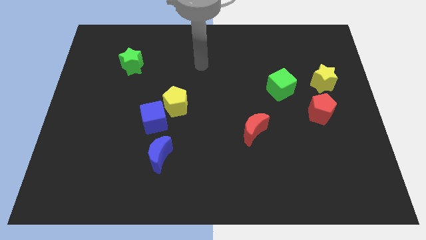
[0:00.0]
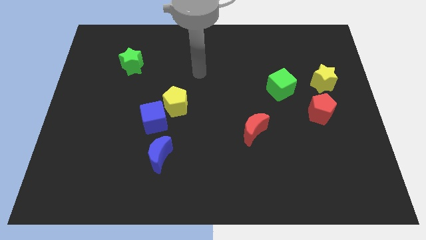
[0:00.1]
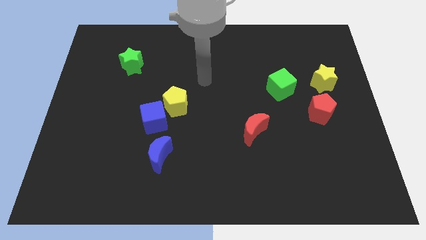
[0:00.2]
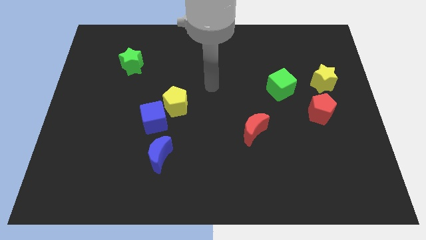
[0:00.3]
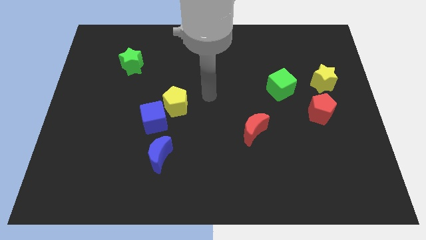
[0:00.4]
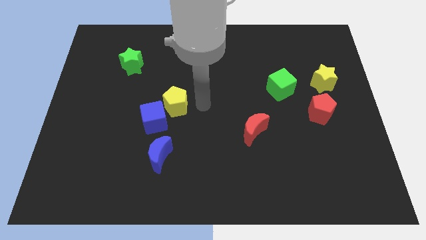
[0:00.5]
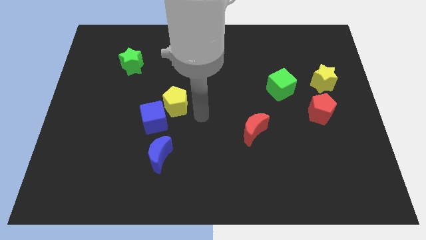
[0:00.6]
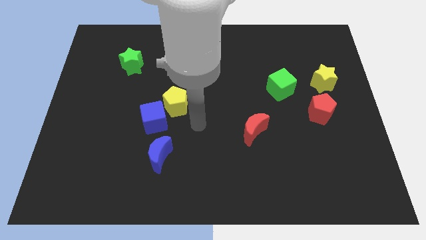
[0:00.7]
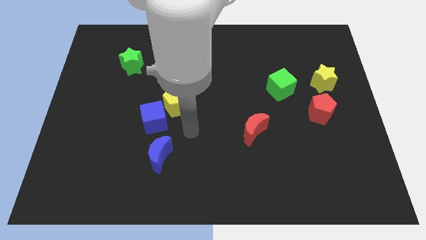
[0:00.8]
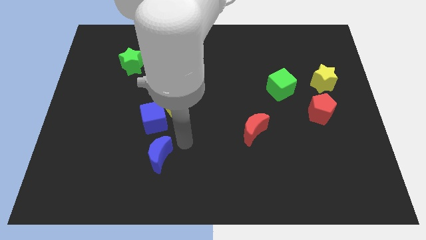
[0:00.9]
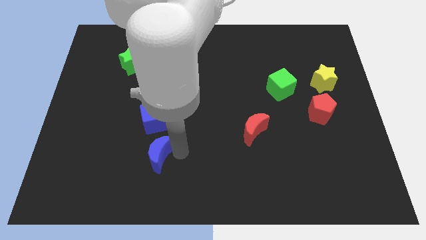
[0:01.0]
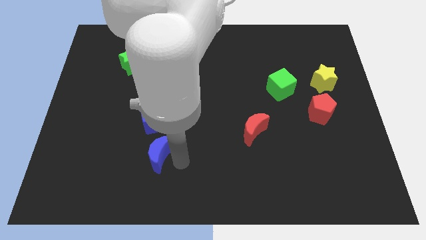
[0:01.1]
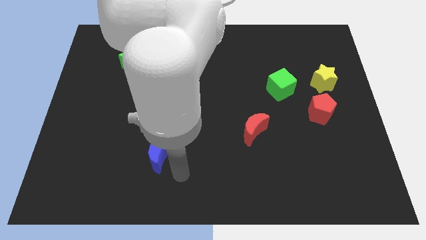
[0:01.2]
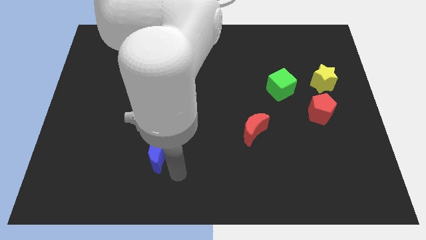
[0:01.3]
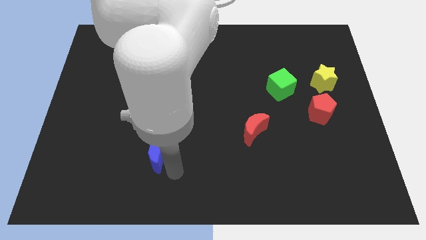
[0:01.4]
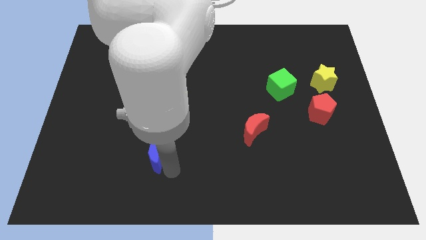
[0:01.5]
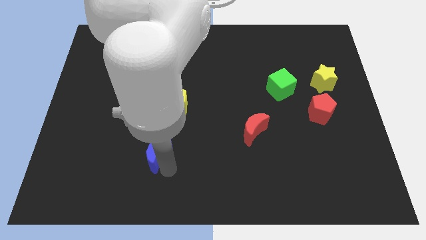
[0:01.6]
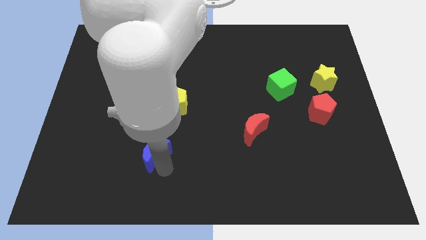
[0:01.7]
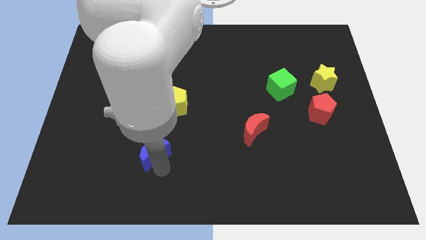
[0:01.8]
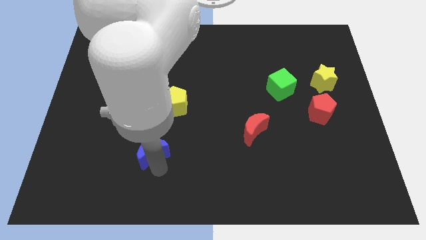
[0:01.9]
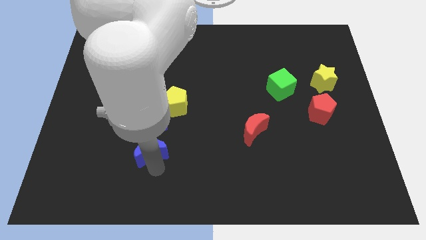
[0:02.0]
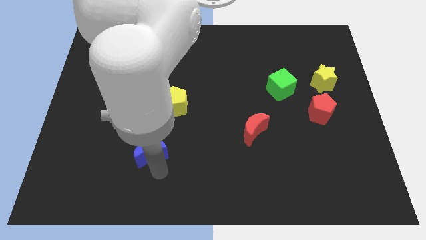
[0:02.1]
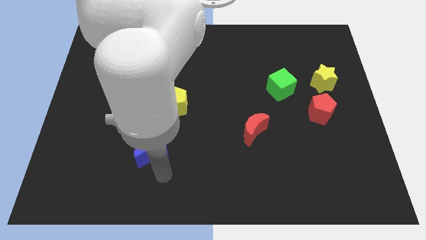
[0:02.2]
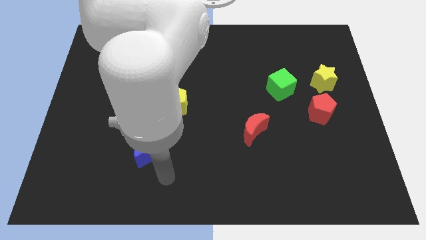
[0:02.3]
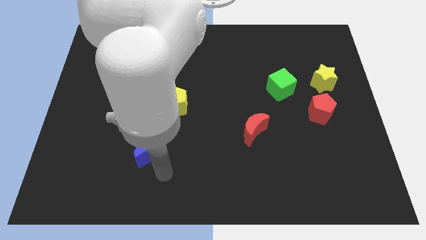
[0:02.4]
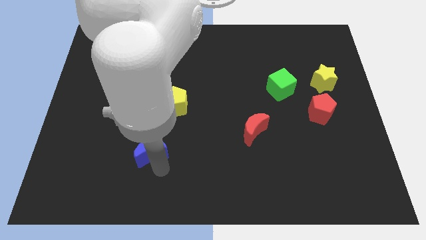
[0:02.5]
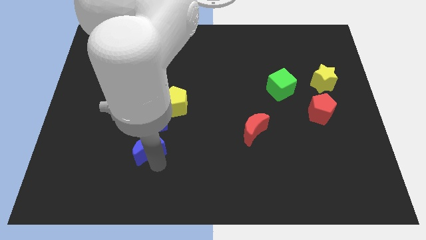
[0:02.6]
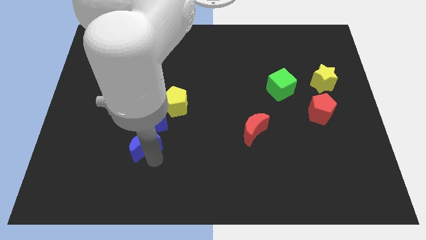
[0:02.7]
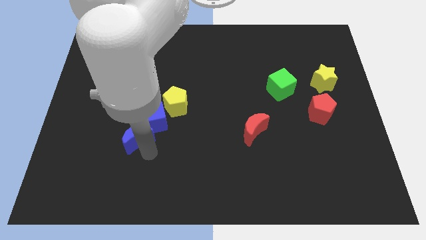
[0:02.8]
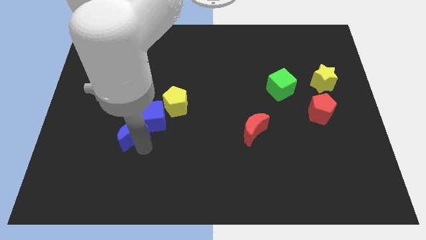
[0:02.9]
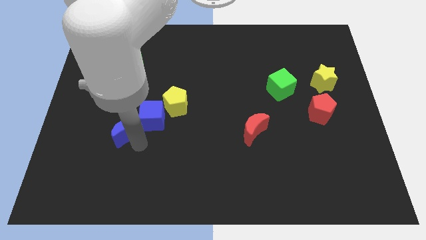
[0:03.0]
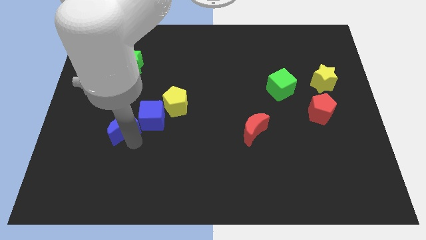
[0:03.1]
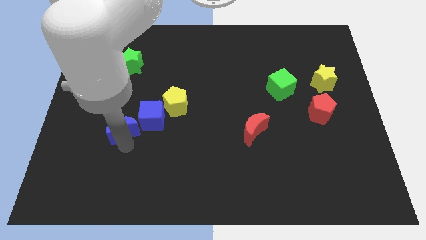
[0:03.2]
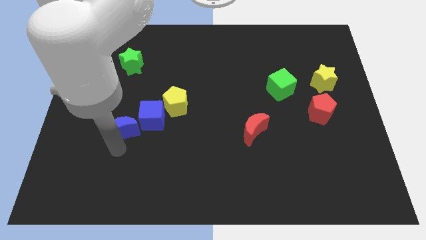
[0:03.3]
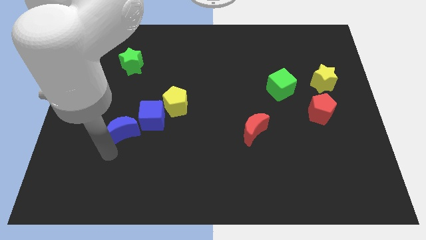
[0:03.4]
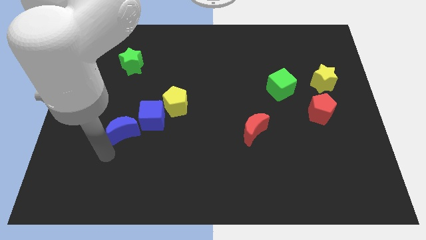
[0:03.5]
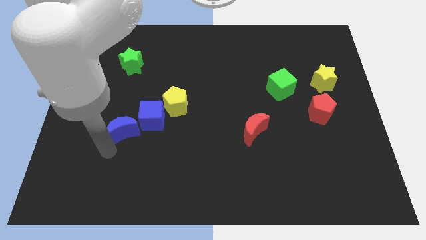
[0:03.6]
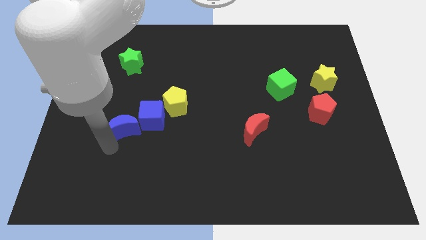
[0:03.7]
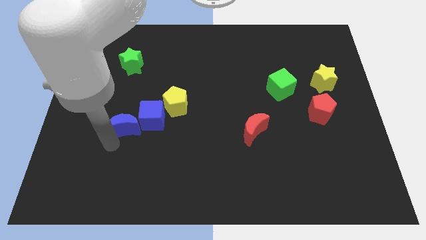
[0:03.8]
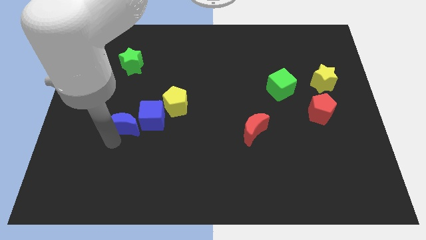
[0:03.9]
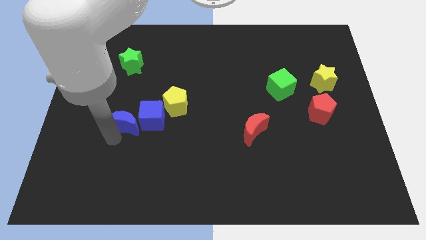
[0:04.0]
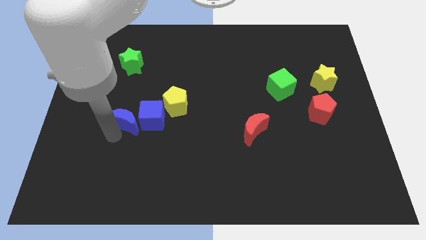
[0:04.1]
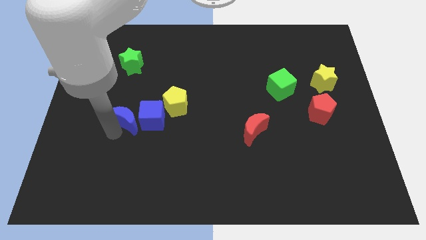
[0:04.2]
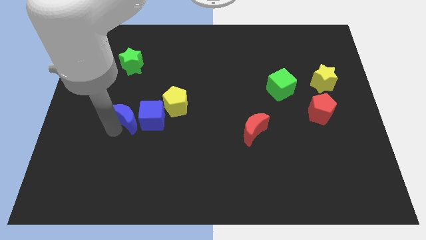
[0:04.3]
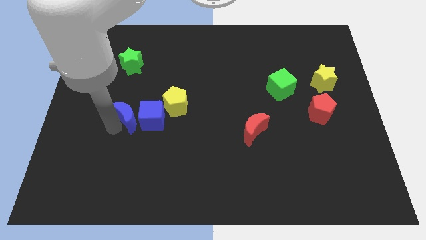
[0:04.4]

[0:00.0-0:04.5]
push the blue moon a bit upwards

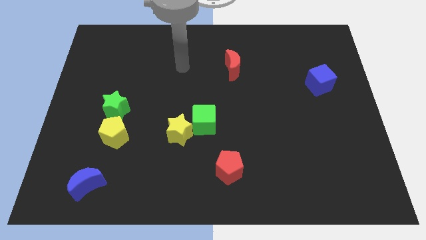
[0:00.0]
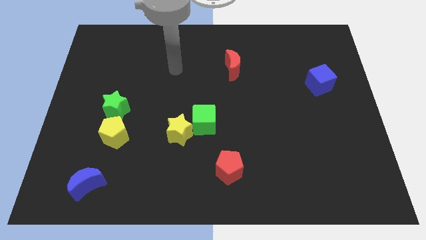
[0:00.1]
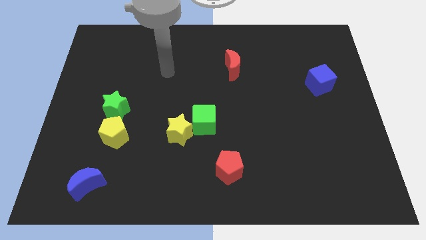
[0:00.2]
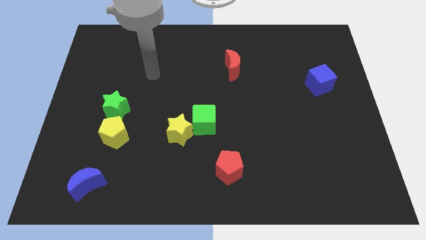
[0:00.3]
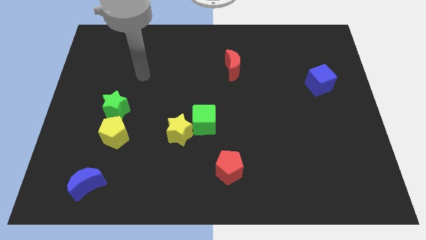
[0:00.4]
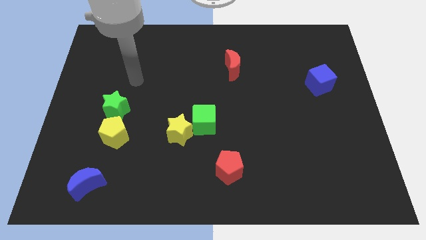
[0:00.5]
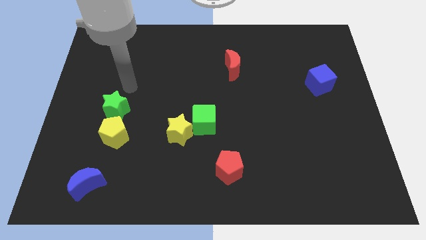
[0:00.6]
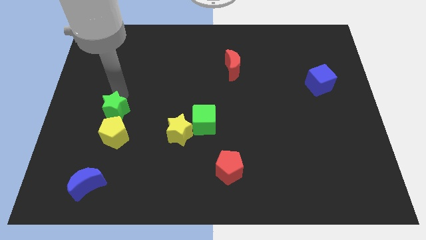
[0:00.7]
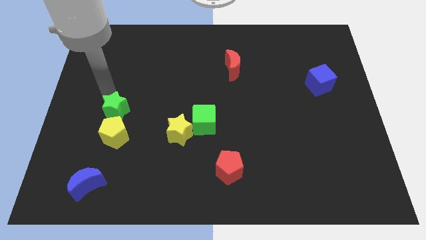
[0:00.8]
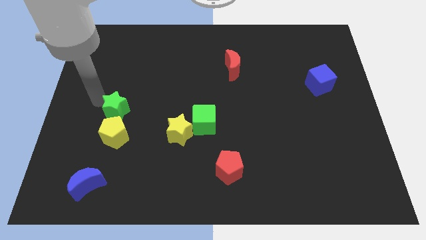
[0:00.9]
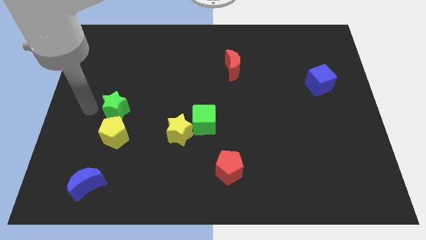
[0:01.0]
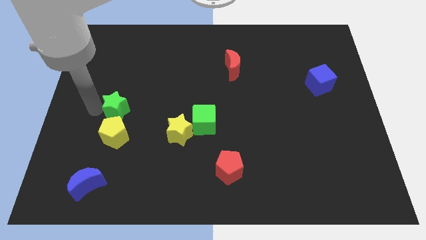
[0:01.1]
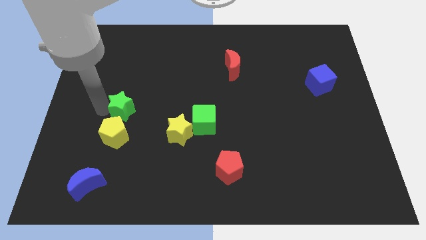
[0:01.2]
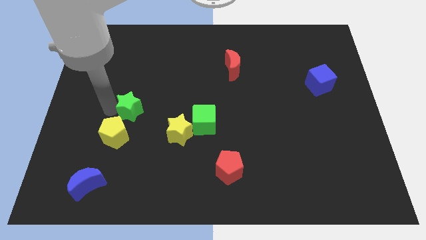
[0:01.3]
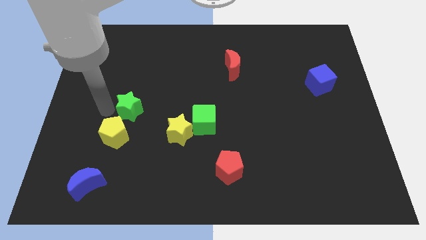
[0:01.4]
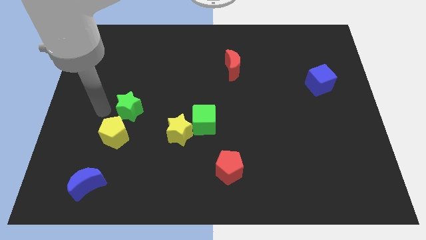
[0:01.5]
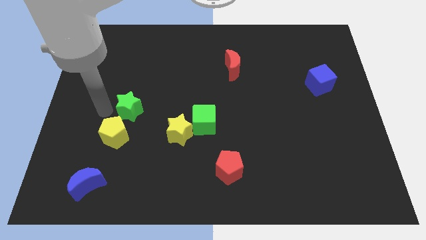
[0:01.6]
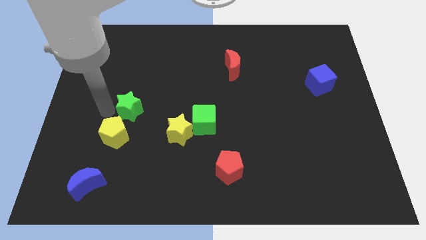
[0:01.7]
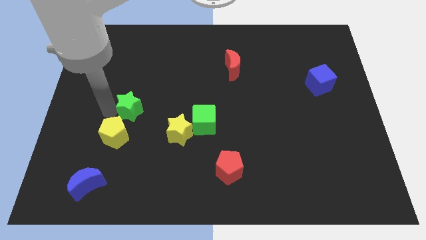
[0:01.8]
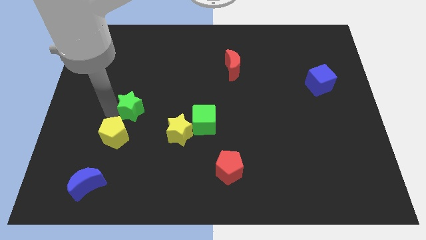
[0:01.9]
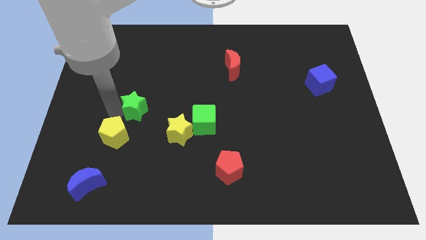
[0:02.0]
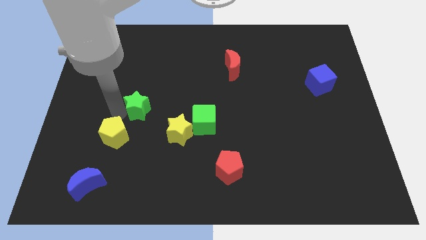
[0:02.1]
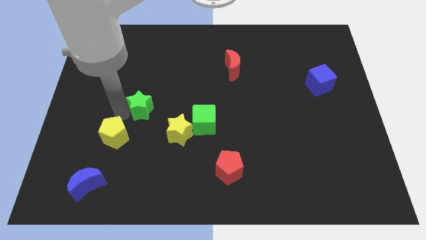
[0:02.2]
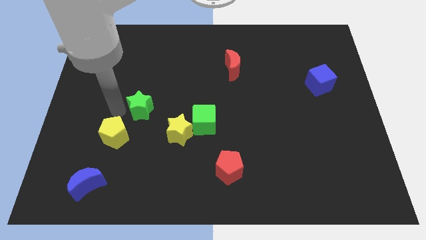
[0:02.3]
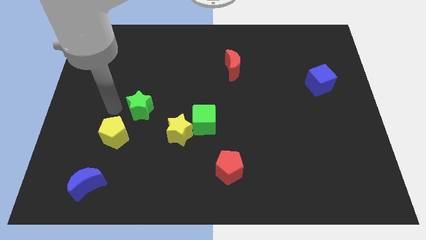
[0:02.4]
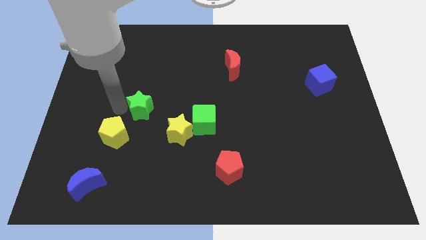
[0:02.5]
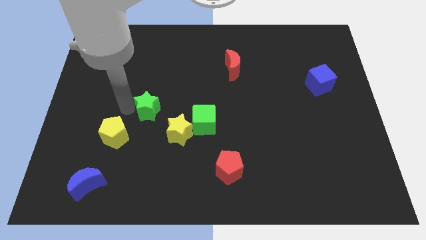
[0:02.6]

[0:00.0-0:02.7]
move the green star right a little

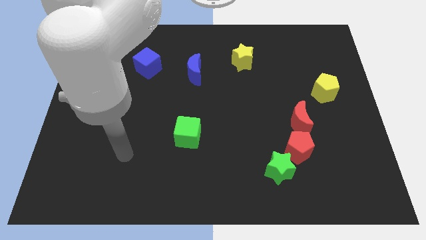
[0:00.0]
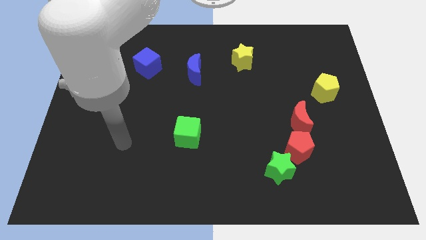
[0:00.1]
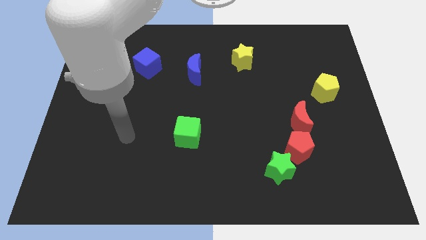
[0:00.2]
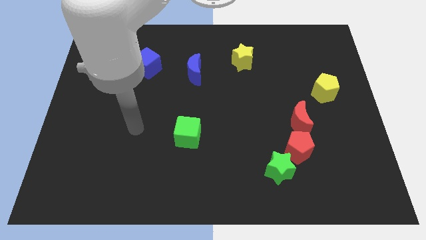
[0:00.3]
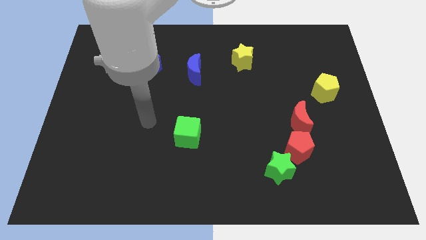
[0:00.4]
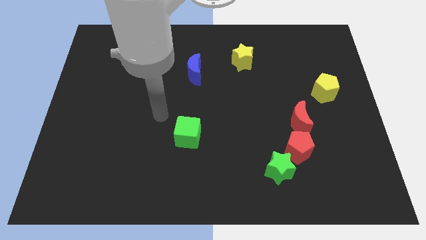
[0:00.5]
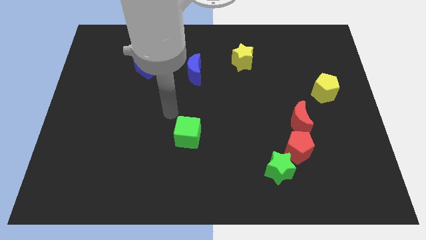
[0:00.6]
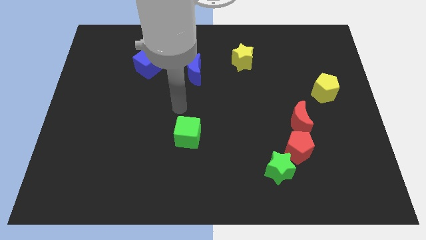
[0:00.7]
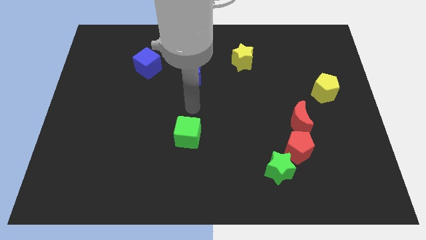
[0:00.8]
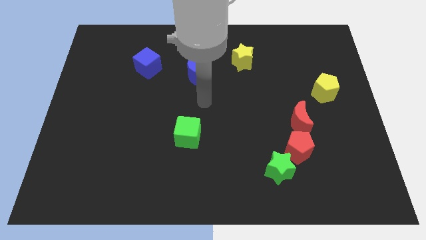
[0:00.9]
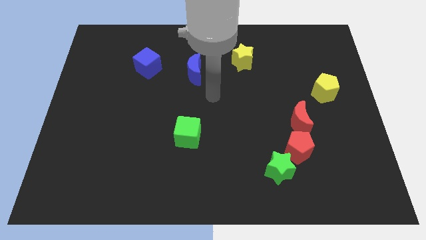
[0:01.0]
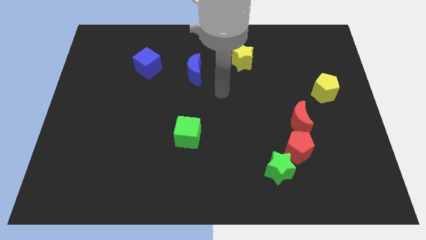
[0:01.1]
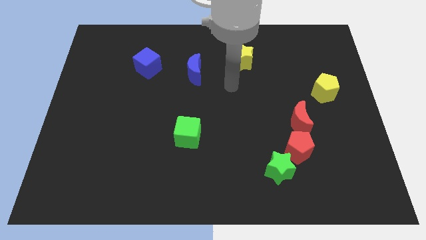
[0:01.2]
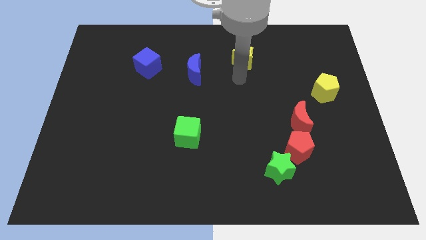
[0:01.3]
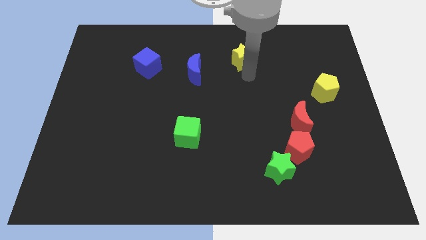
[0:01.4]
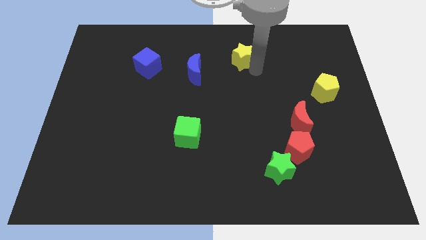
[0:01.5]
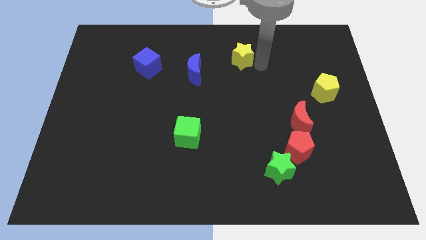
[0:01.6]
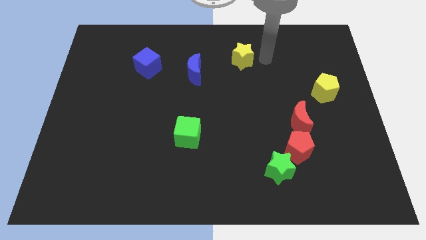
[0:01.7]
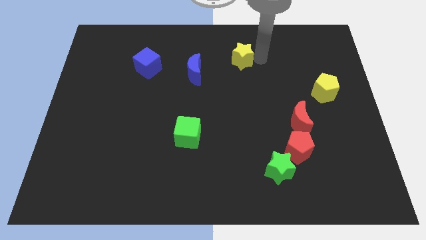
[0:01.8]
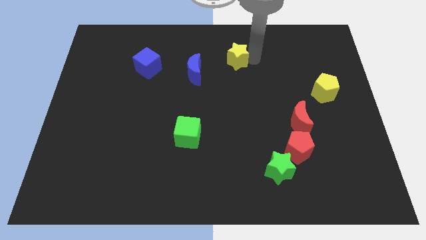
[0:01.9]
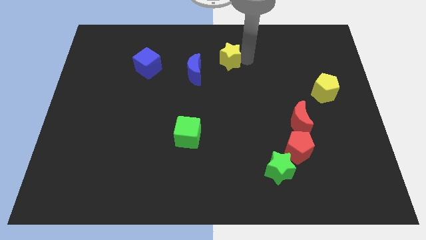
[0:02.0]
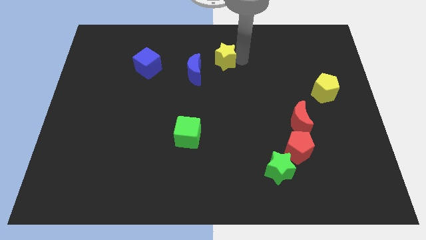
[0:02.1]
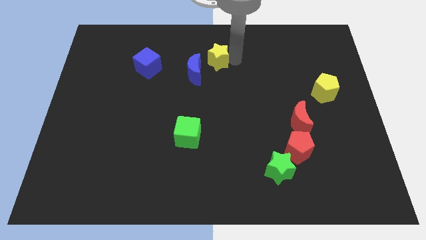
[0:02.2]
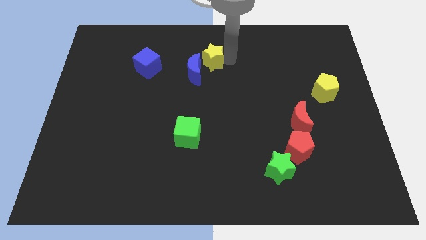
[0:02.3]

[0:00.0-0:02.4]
slightly move the yellow star left
